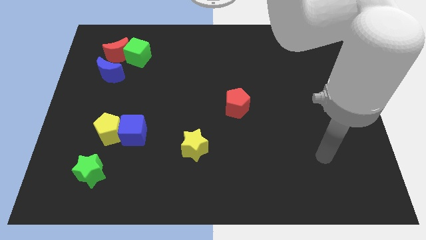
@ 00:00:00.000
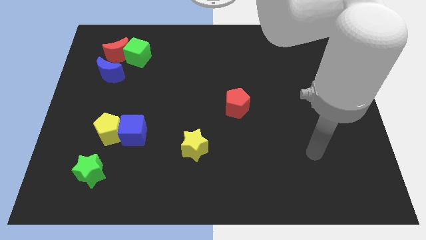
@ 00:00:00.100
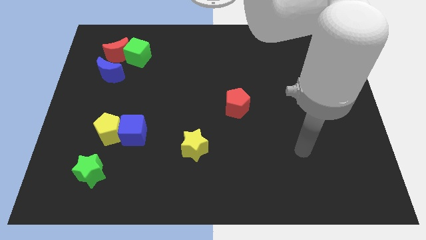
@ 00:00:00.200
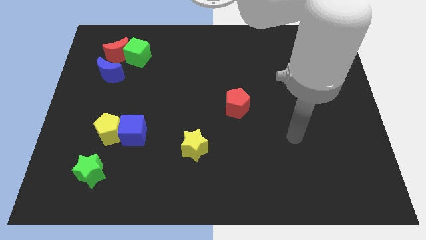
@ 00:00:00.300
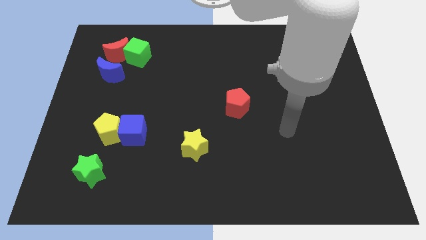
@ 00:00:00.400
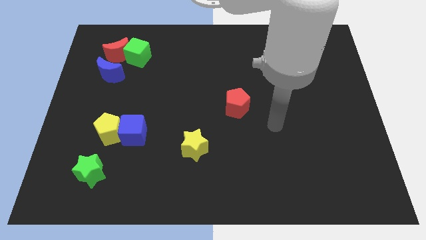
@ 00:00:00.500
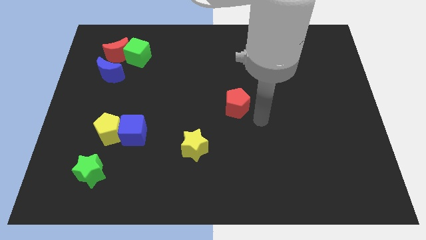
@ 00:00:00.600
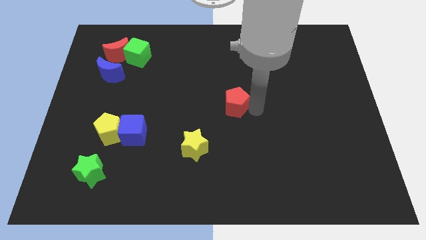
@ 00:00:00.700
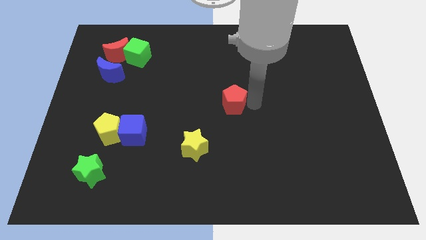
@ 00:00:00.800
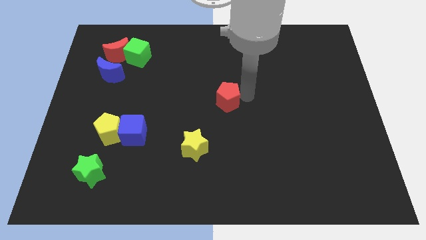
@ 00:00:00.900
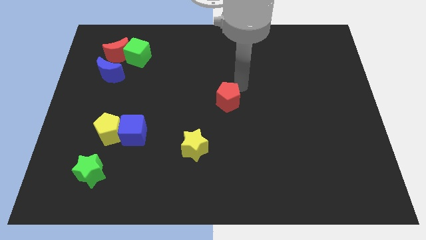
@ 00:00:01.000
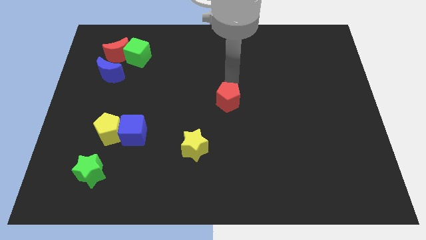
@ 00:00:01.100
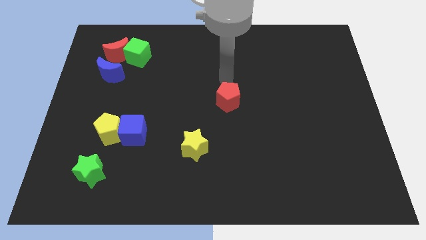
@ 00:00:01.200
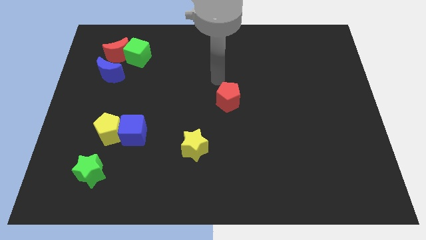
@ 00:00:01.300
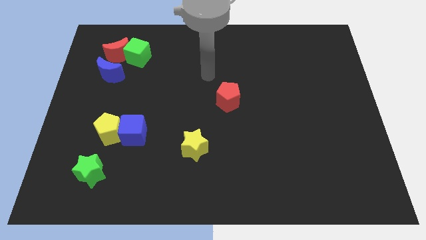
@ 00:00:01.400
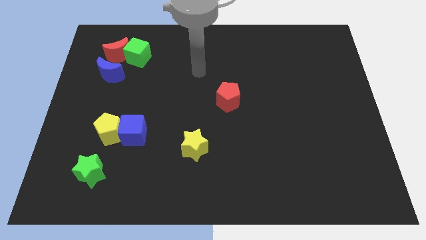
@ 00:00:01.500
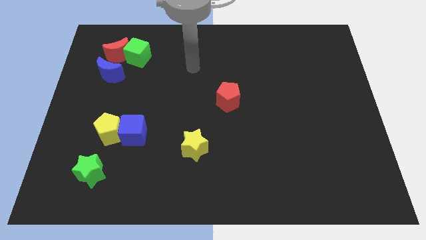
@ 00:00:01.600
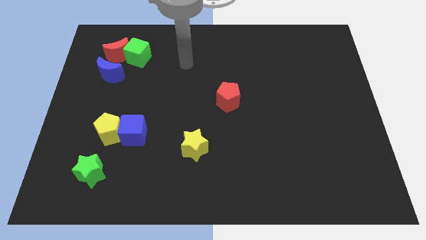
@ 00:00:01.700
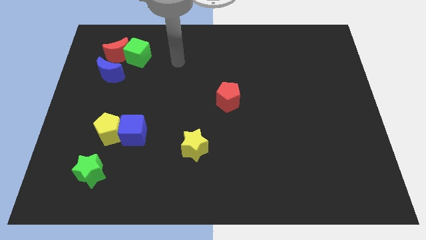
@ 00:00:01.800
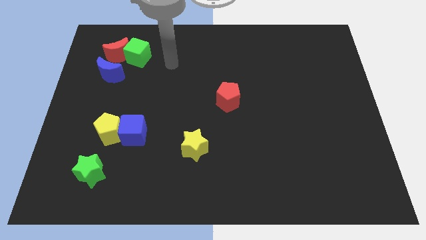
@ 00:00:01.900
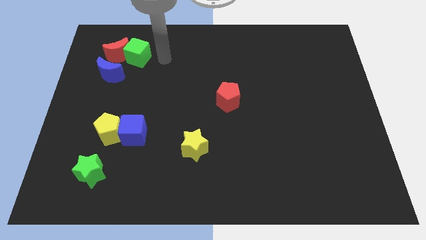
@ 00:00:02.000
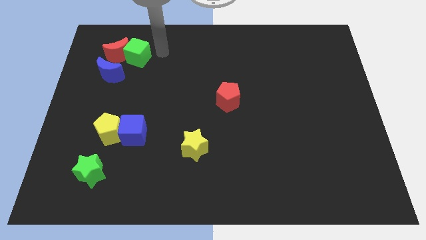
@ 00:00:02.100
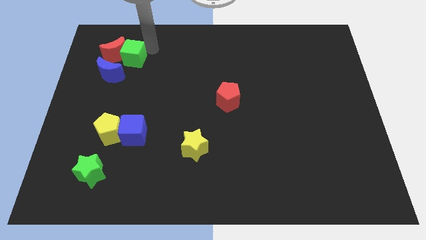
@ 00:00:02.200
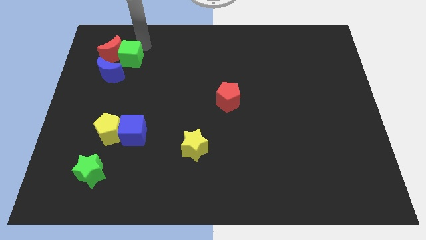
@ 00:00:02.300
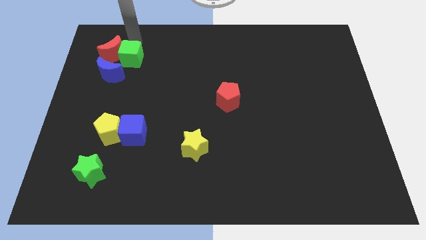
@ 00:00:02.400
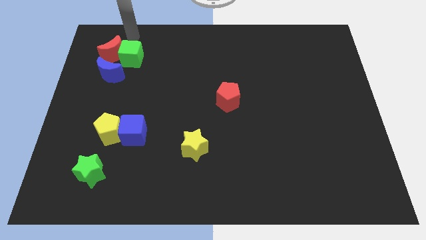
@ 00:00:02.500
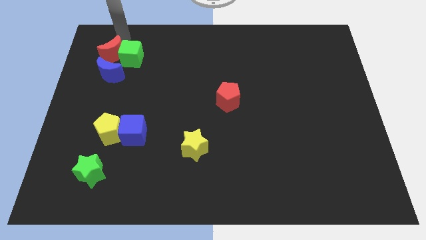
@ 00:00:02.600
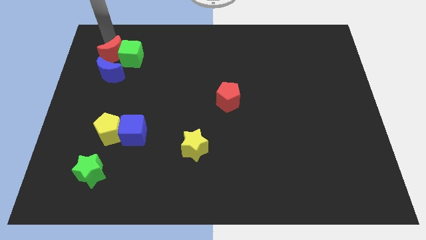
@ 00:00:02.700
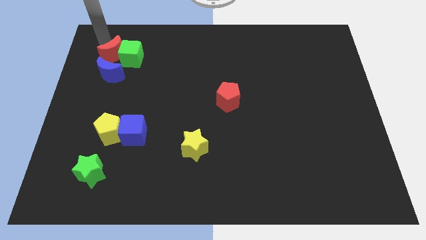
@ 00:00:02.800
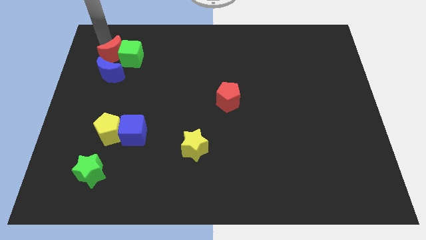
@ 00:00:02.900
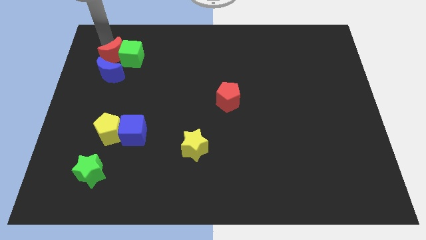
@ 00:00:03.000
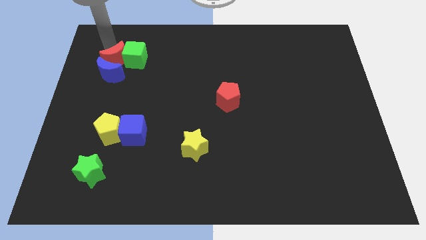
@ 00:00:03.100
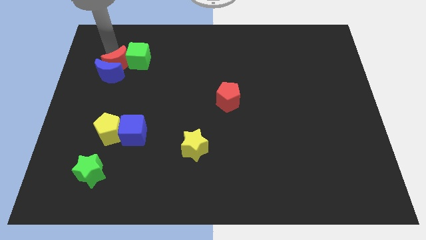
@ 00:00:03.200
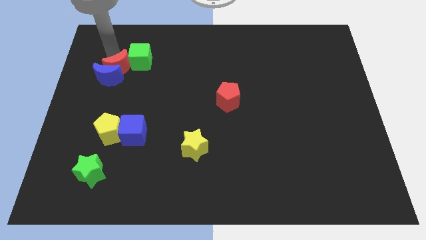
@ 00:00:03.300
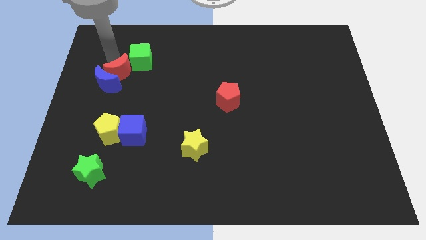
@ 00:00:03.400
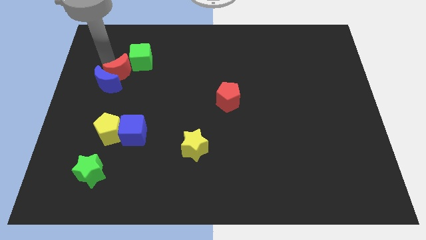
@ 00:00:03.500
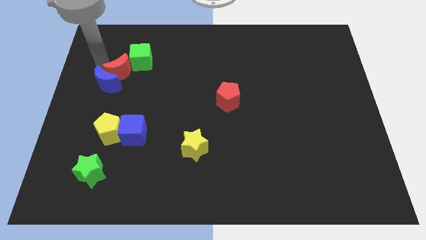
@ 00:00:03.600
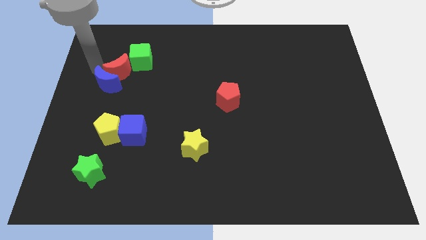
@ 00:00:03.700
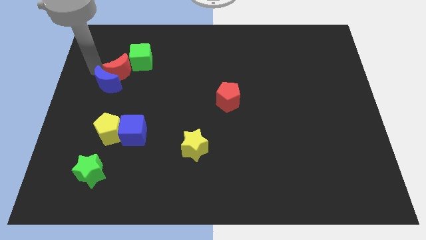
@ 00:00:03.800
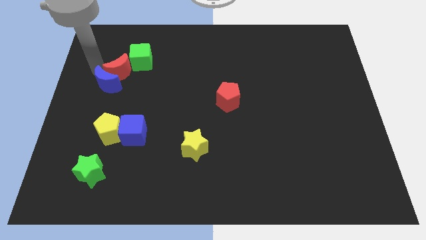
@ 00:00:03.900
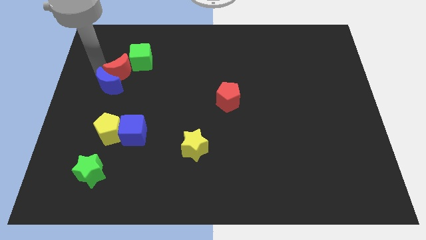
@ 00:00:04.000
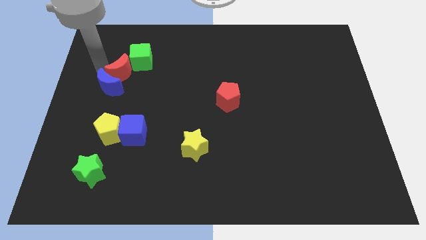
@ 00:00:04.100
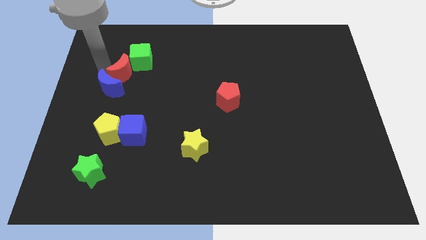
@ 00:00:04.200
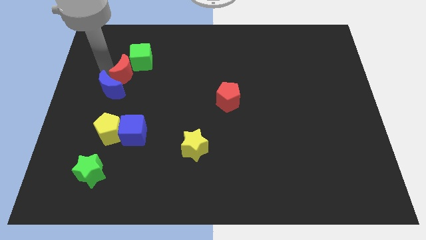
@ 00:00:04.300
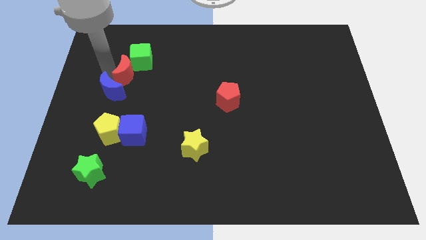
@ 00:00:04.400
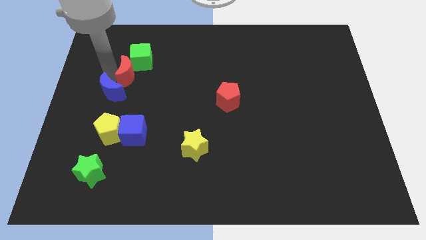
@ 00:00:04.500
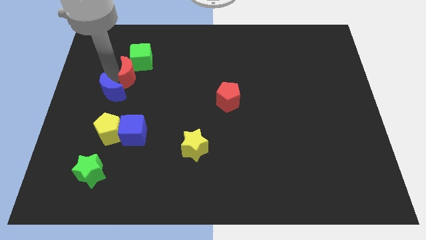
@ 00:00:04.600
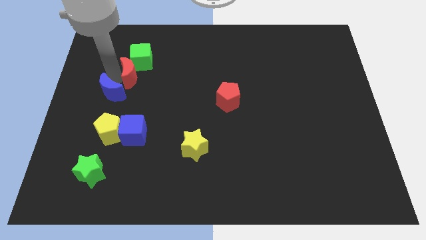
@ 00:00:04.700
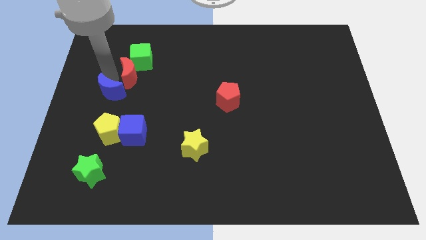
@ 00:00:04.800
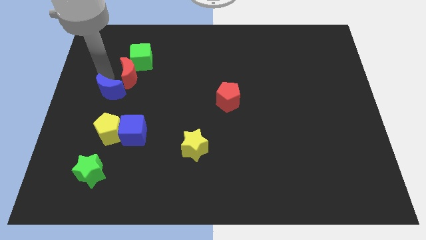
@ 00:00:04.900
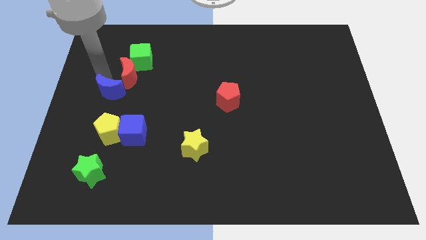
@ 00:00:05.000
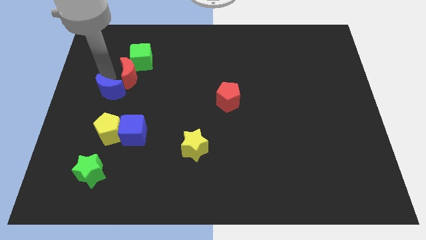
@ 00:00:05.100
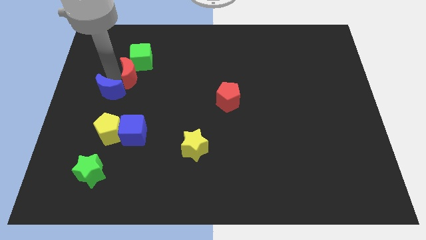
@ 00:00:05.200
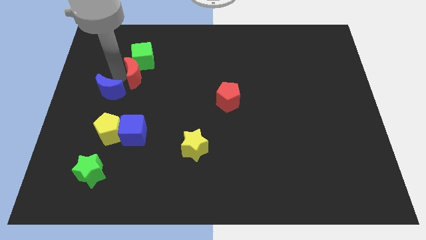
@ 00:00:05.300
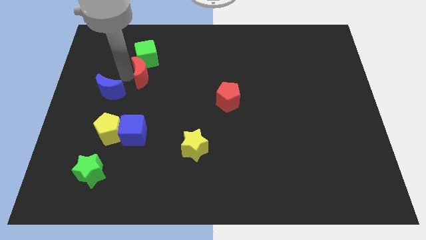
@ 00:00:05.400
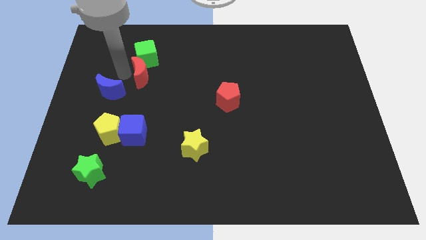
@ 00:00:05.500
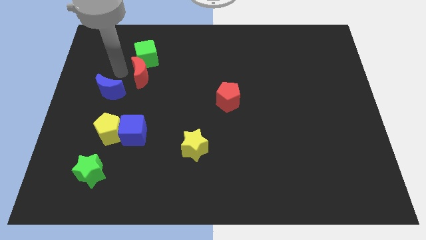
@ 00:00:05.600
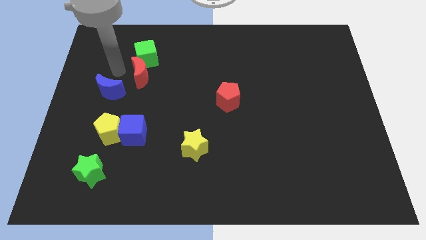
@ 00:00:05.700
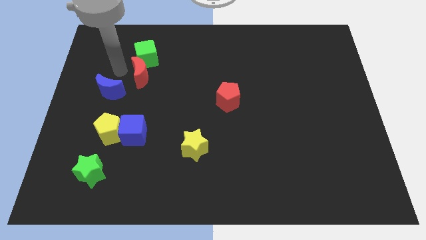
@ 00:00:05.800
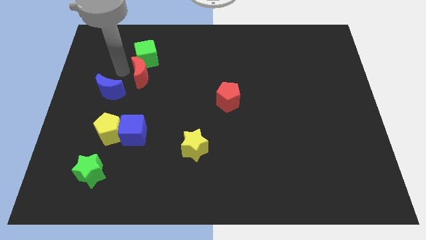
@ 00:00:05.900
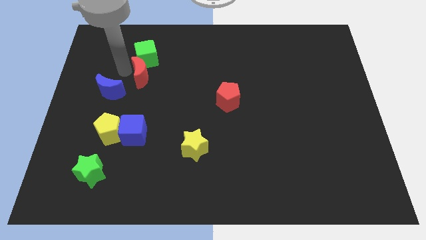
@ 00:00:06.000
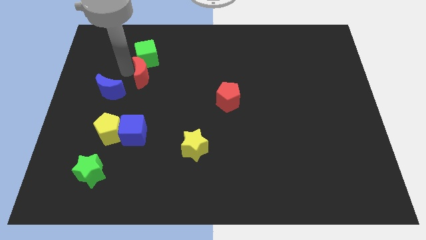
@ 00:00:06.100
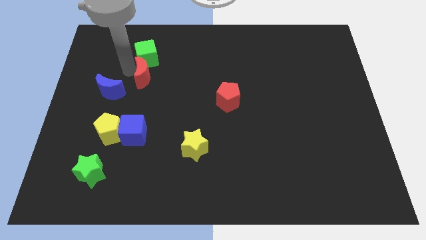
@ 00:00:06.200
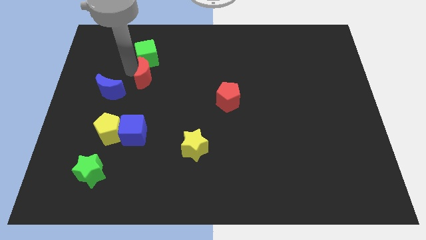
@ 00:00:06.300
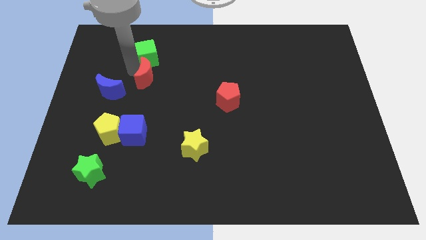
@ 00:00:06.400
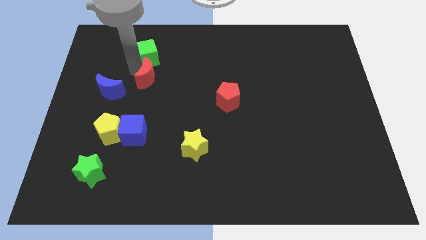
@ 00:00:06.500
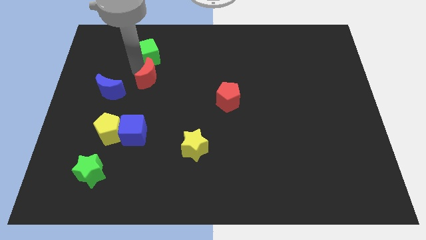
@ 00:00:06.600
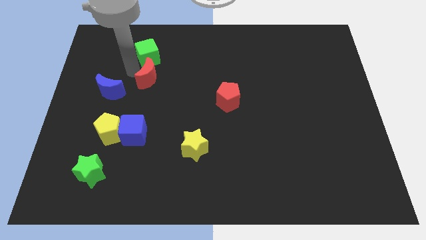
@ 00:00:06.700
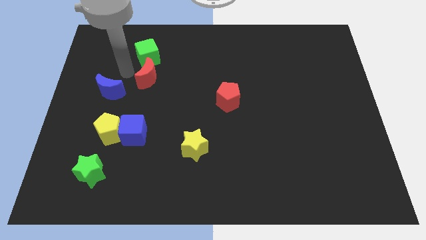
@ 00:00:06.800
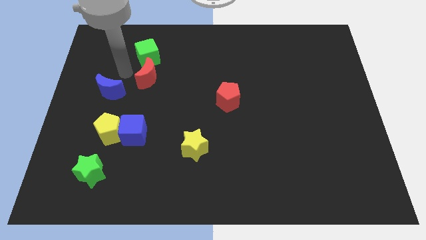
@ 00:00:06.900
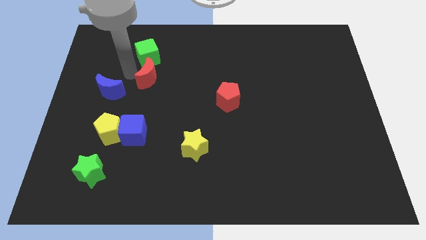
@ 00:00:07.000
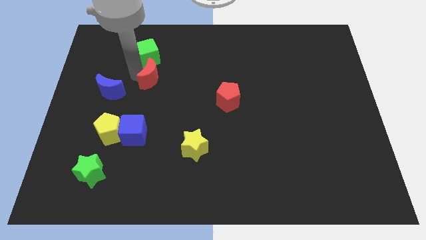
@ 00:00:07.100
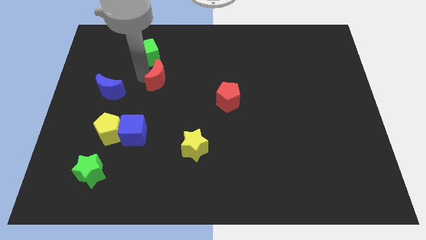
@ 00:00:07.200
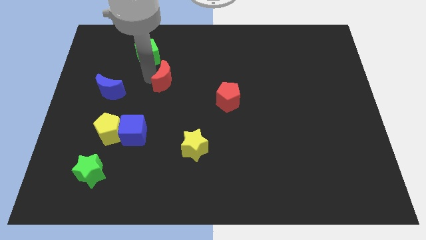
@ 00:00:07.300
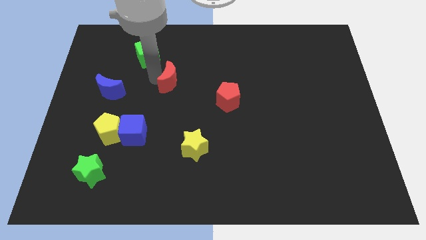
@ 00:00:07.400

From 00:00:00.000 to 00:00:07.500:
push the red moon to the center
